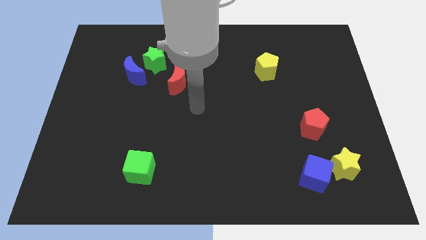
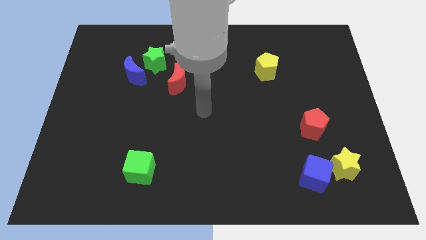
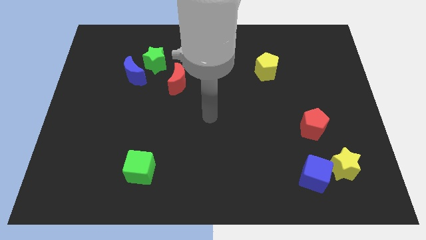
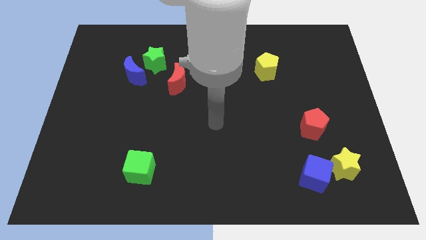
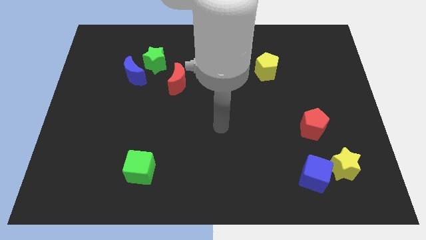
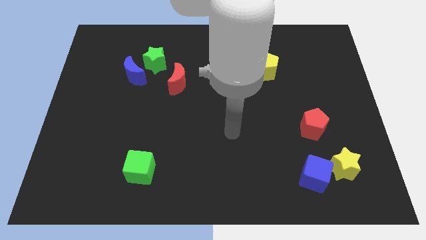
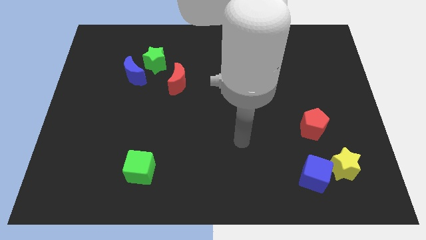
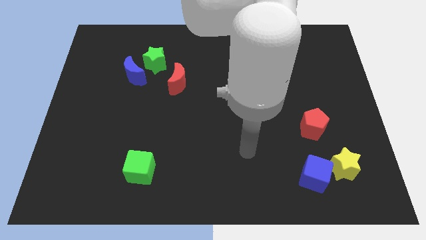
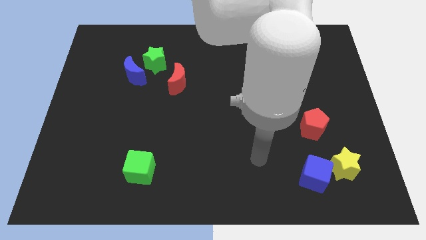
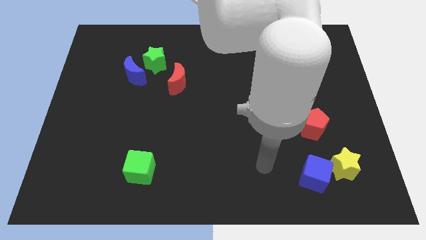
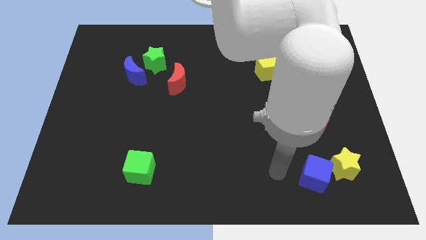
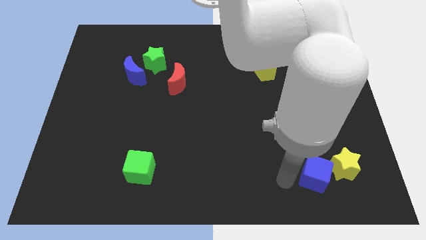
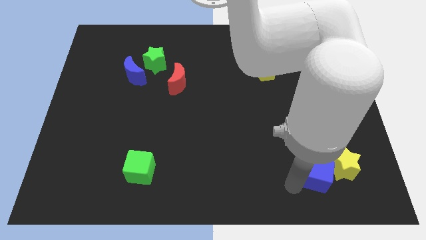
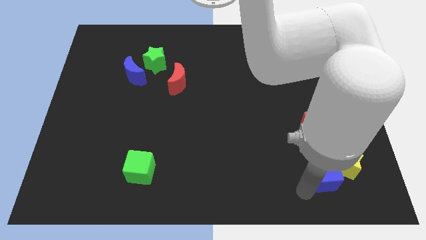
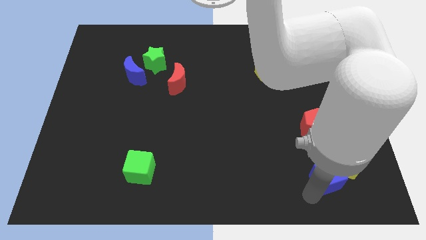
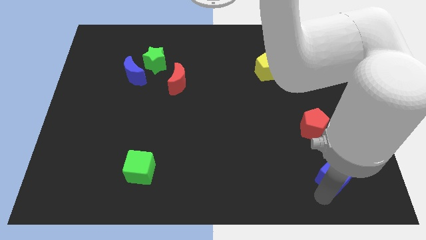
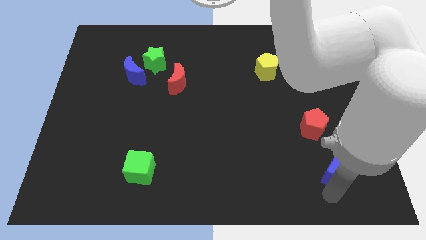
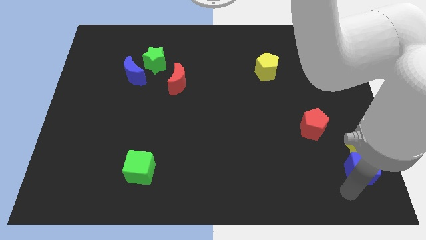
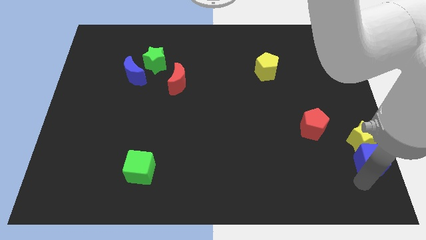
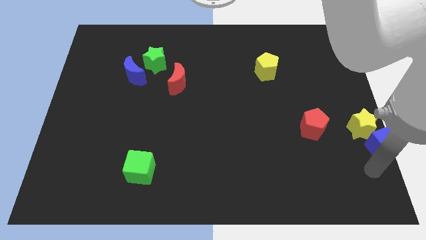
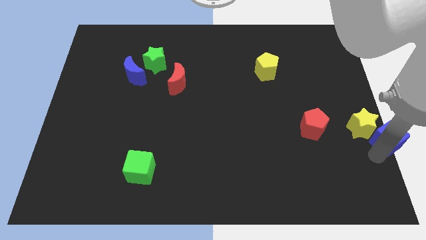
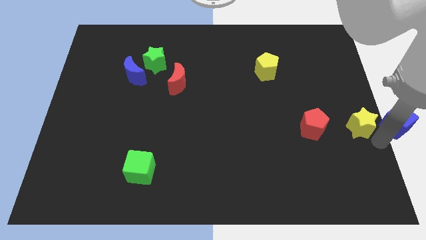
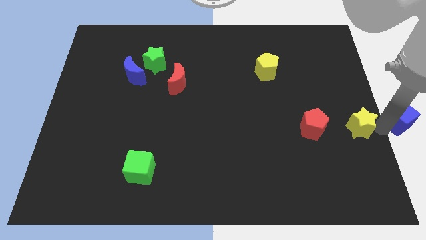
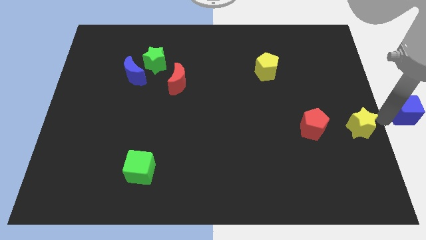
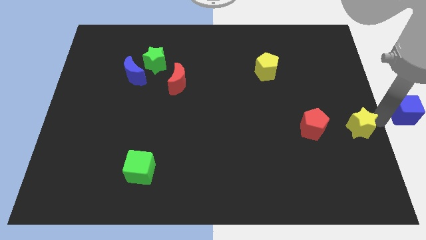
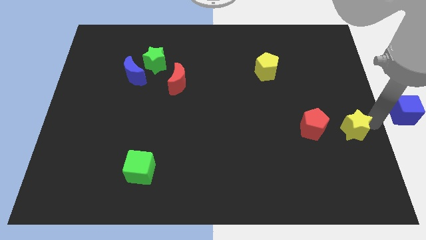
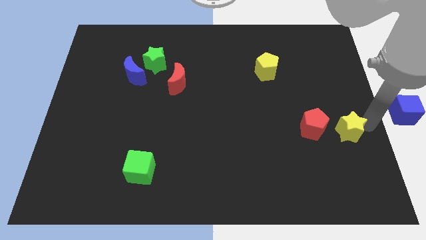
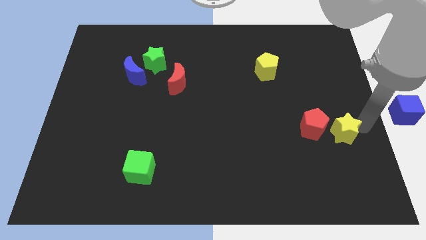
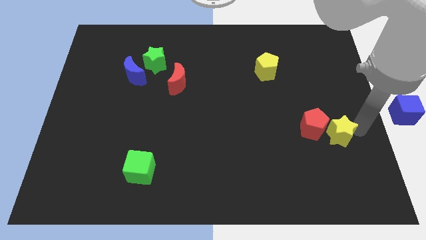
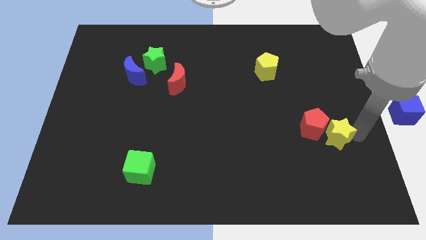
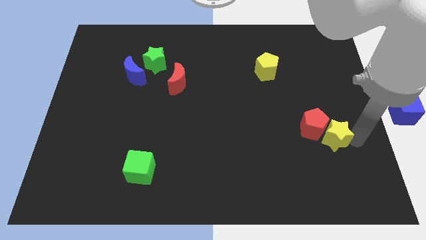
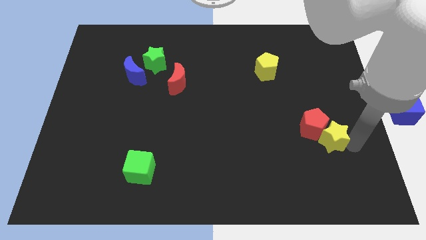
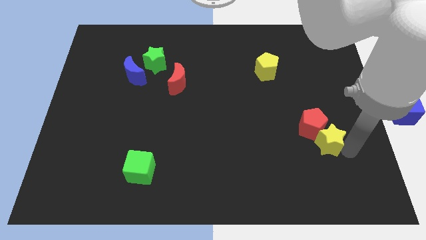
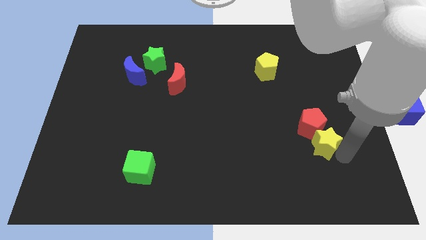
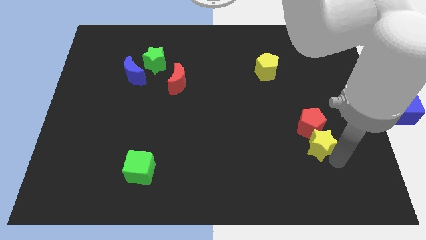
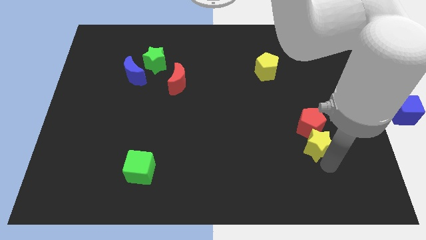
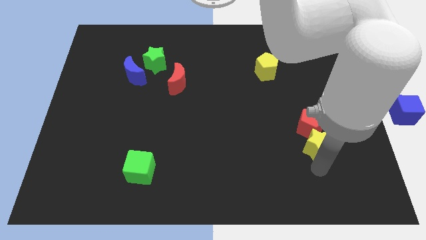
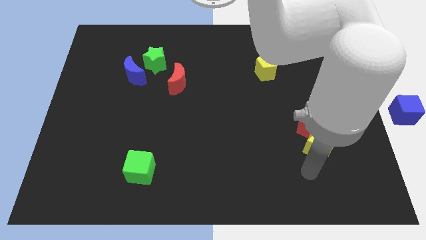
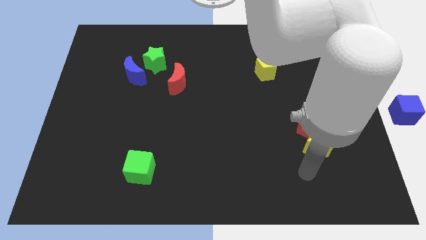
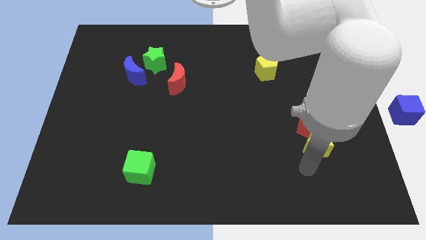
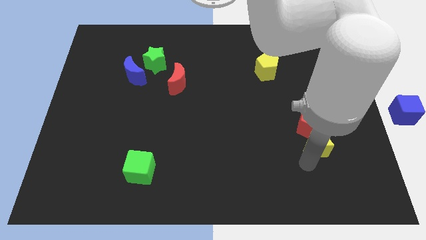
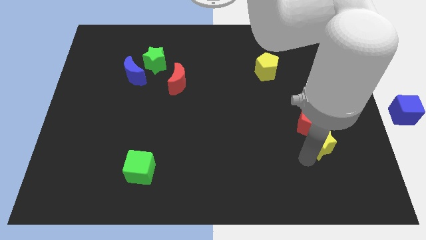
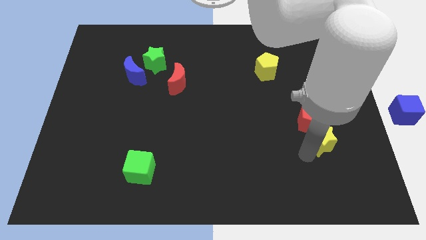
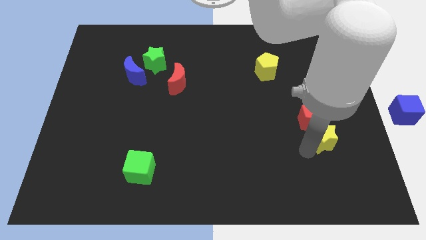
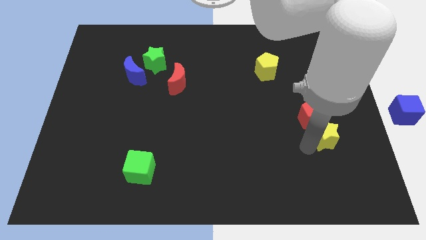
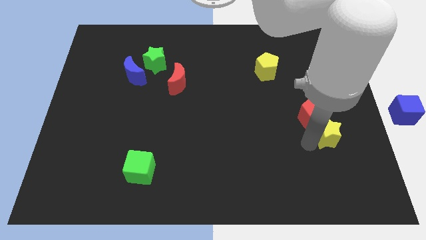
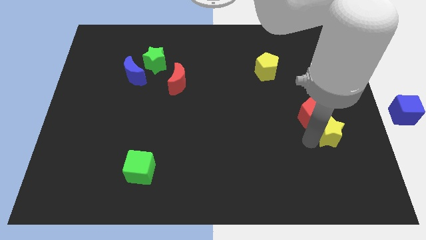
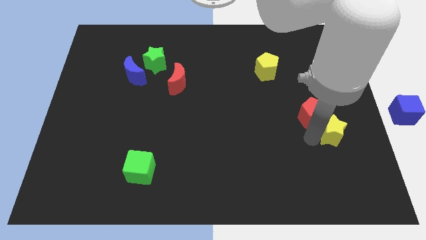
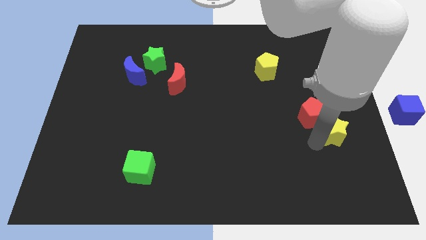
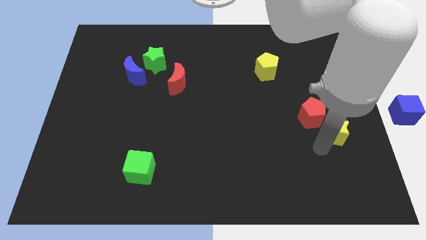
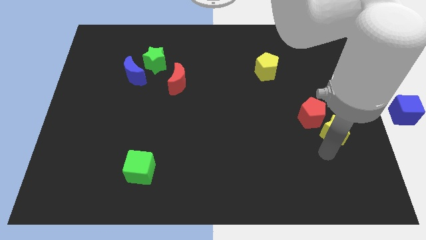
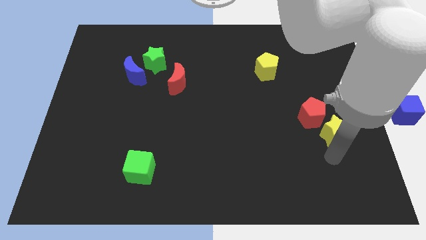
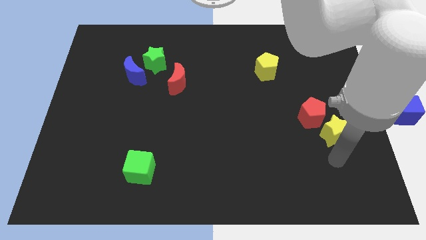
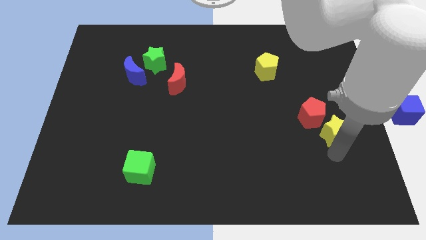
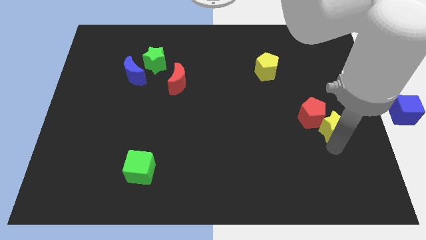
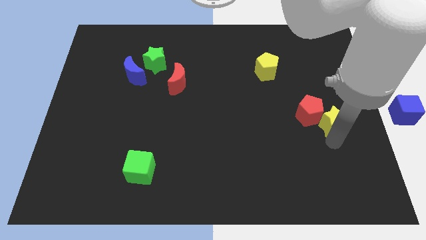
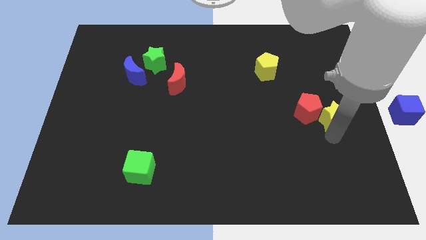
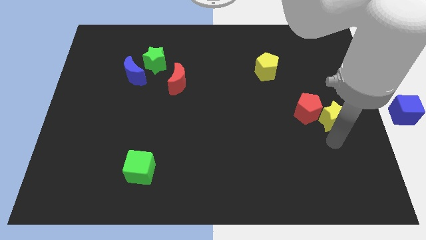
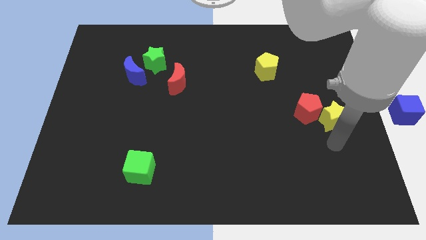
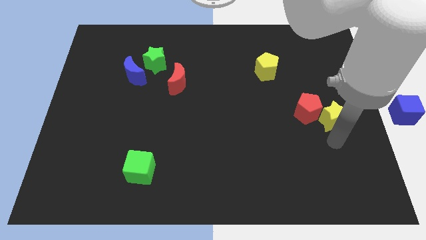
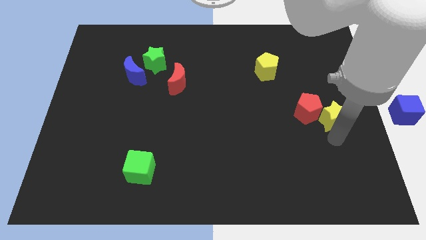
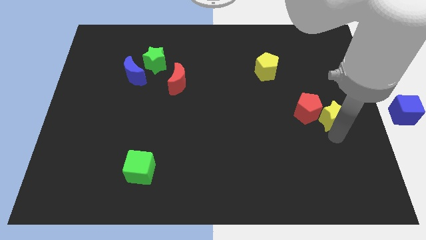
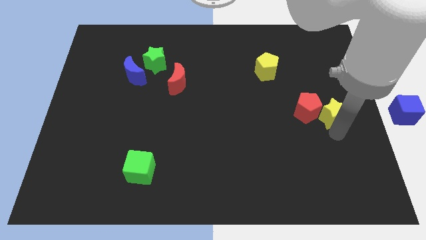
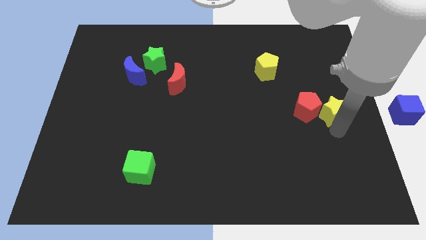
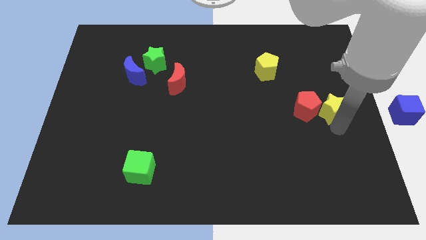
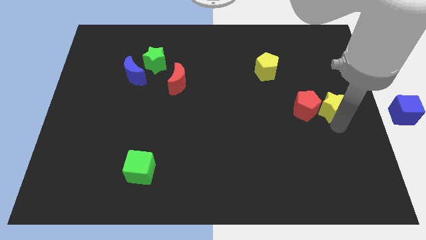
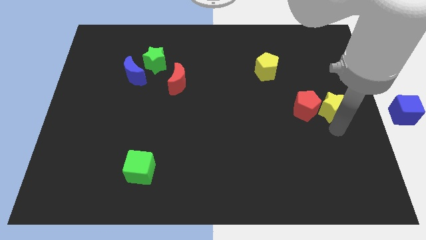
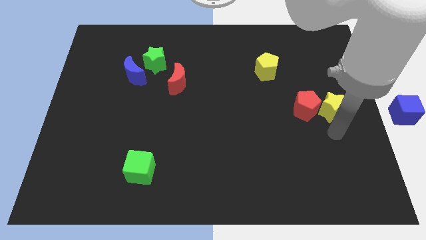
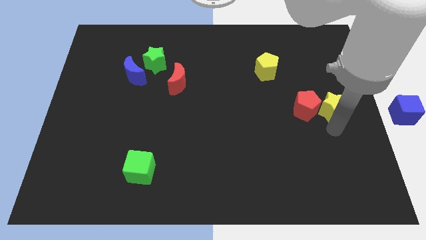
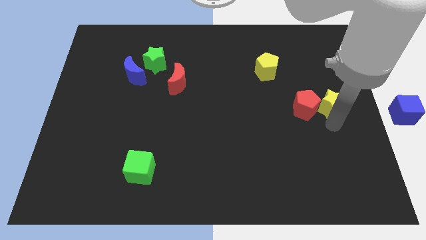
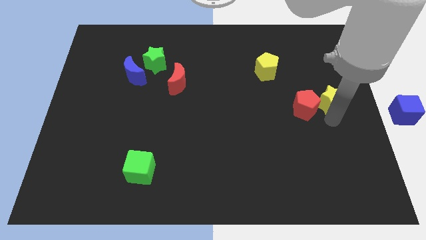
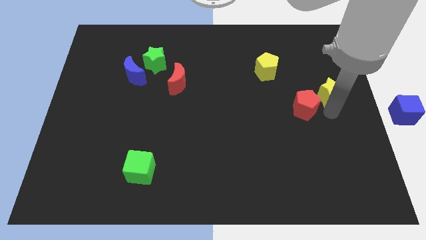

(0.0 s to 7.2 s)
slide the yellow star up

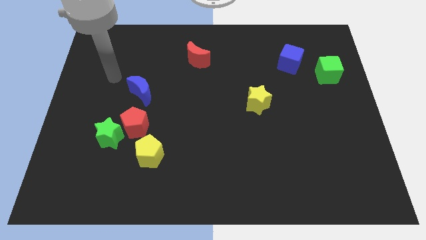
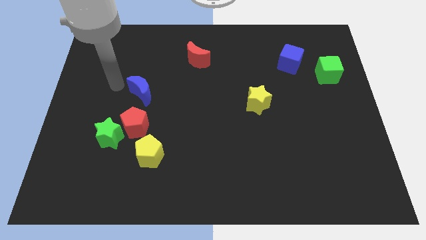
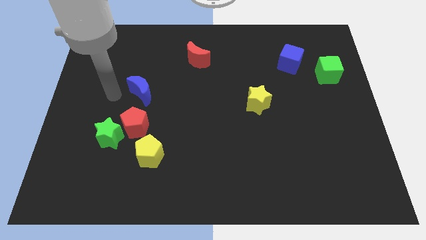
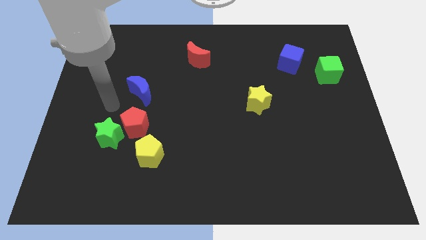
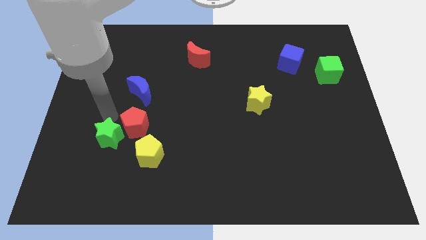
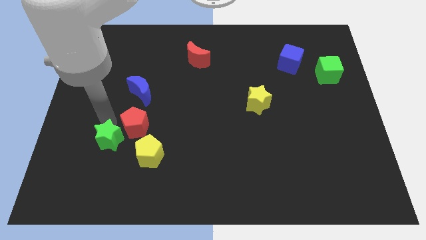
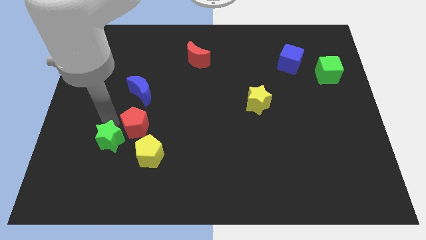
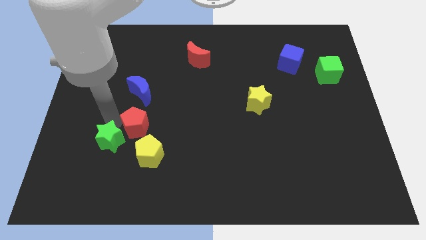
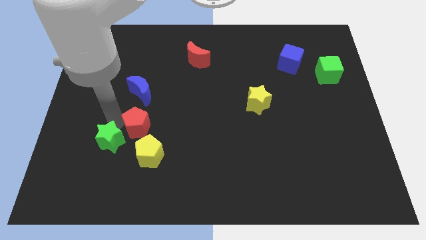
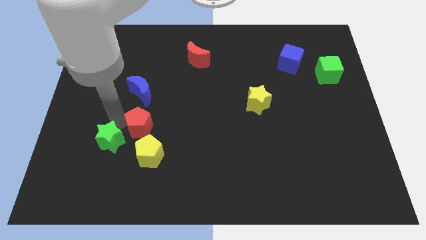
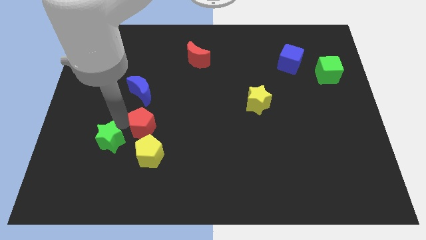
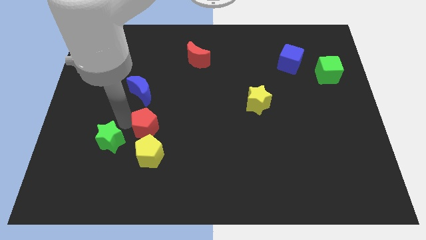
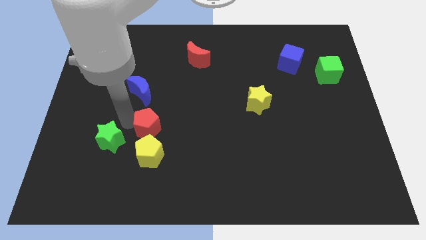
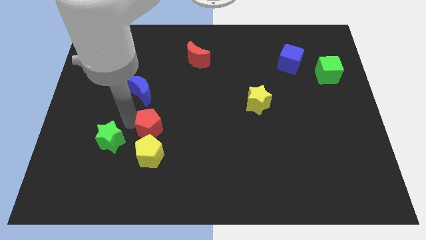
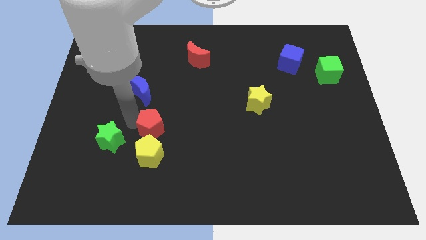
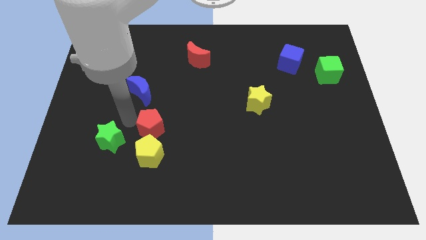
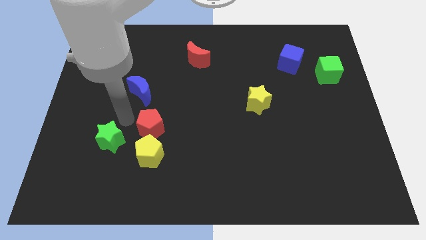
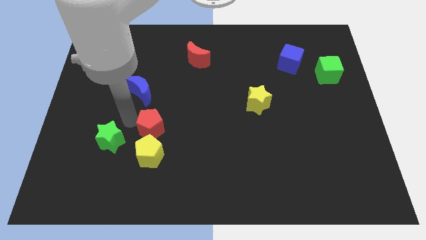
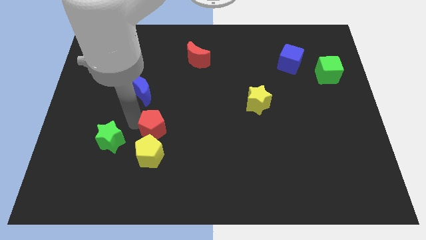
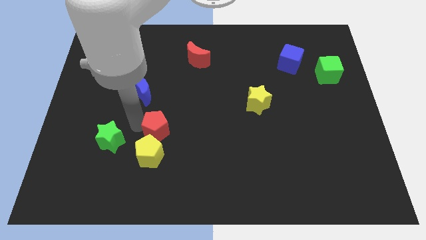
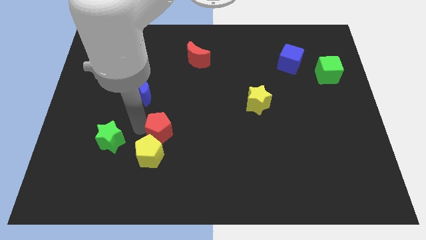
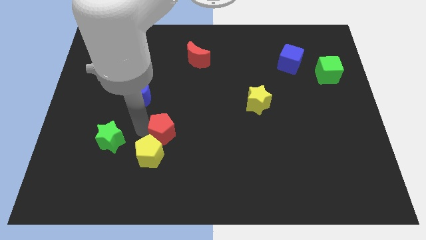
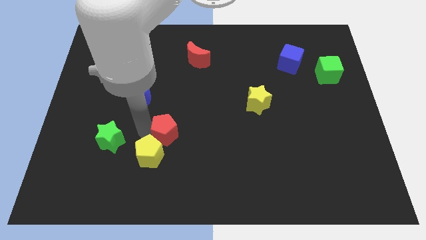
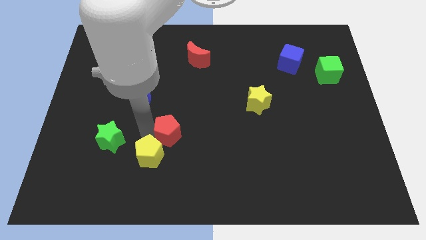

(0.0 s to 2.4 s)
push the red pentagon somewhat to the right
